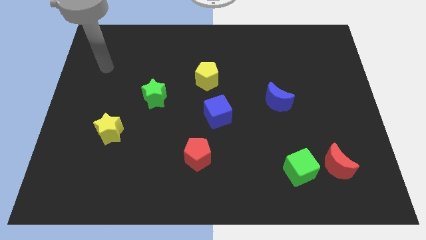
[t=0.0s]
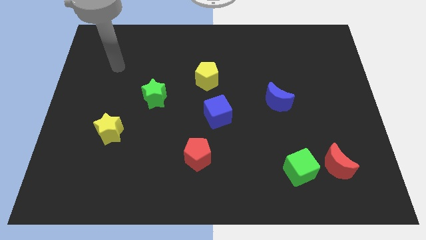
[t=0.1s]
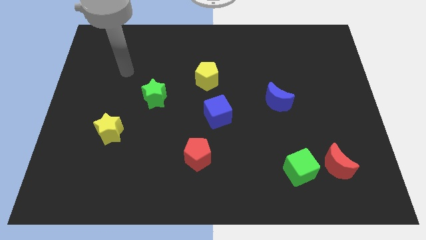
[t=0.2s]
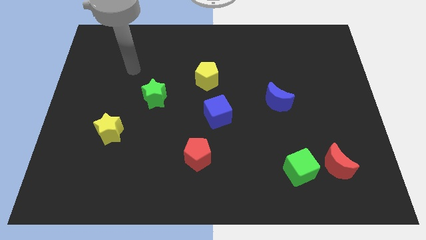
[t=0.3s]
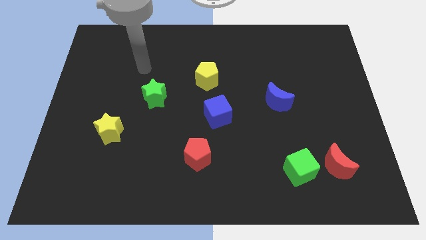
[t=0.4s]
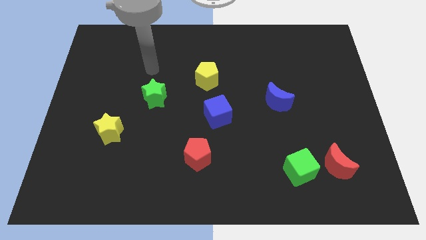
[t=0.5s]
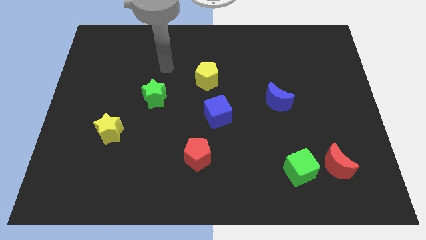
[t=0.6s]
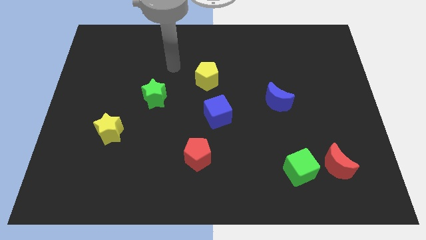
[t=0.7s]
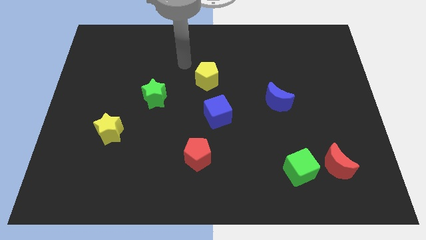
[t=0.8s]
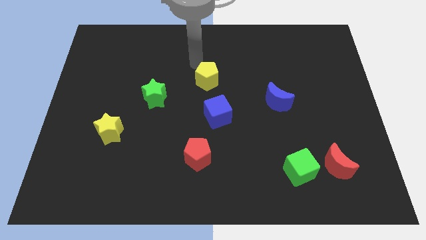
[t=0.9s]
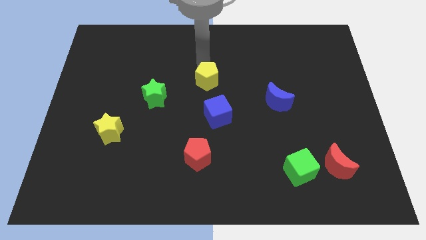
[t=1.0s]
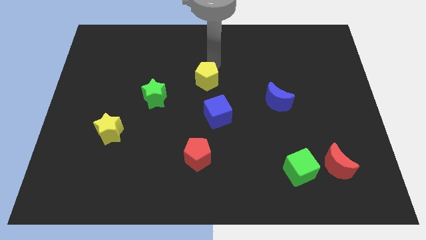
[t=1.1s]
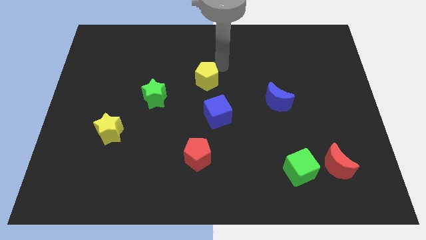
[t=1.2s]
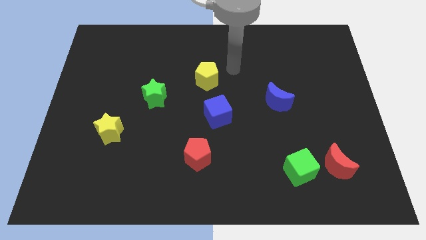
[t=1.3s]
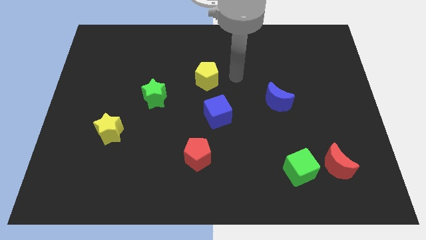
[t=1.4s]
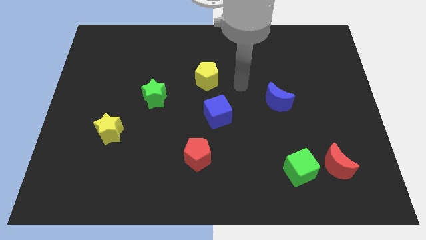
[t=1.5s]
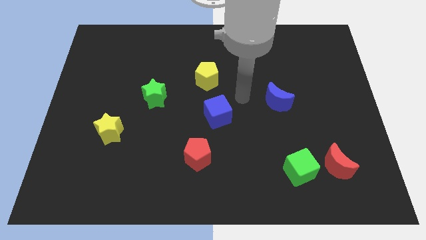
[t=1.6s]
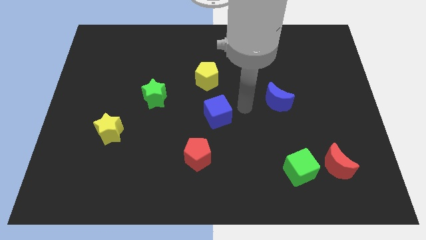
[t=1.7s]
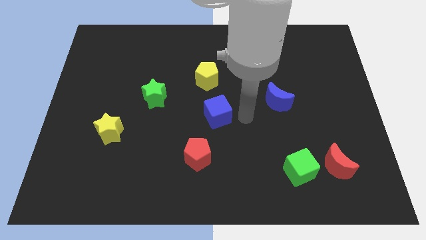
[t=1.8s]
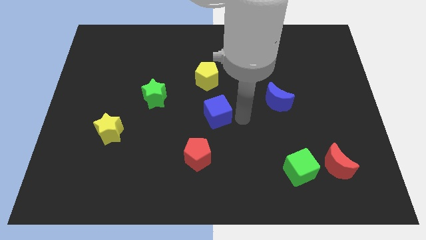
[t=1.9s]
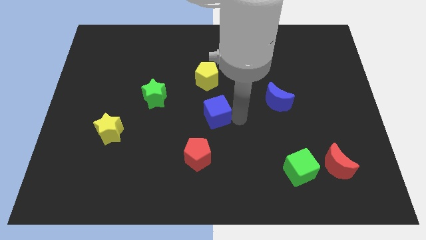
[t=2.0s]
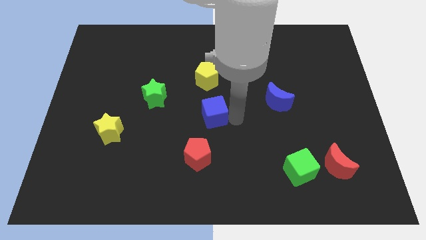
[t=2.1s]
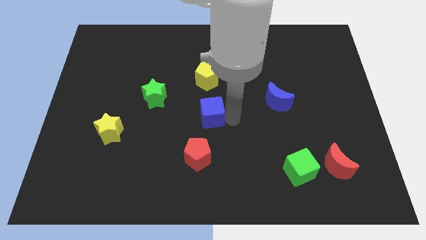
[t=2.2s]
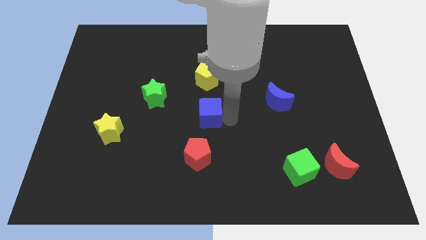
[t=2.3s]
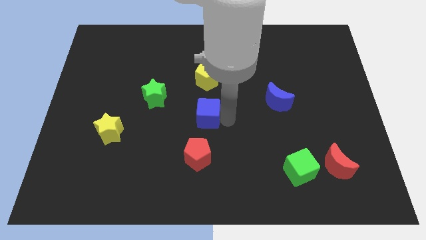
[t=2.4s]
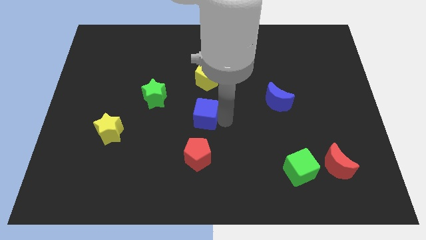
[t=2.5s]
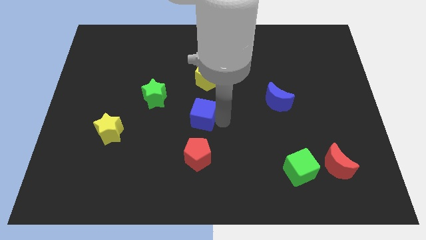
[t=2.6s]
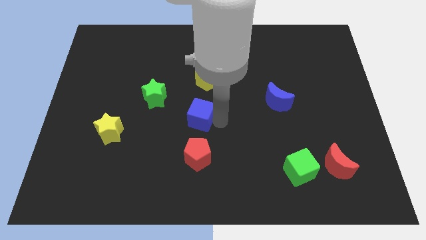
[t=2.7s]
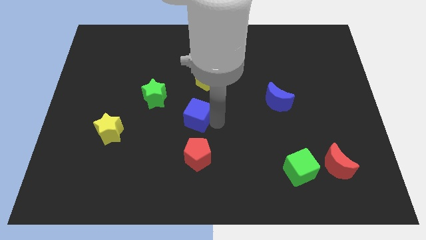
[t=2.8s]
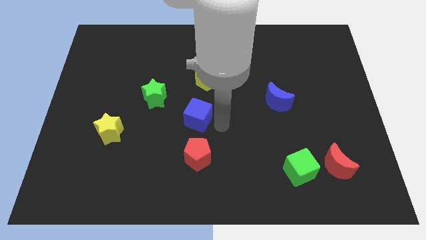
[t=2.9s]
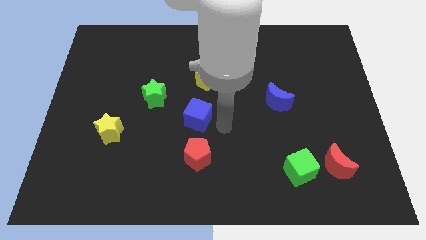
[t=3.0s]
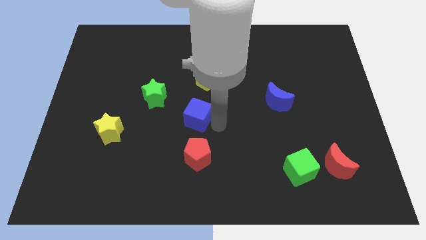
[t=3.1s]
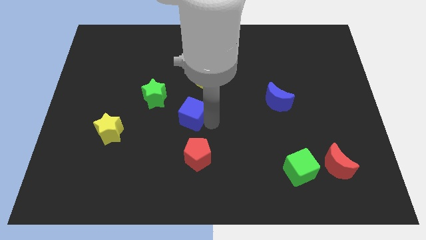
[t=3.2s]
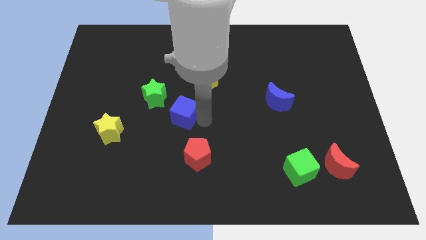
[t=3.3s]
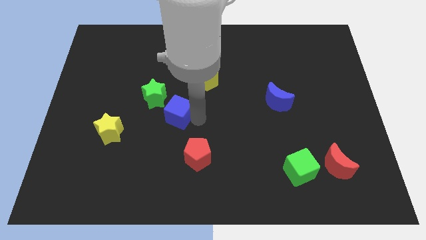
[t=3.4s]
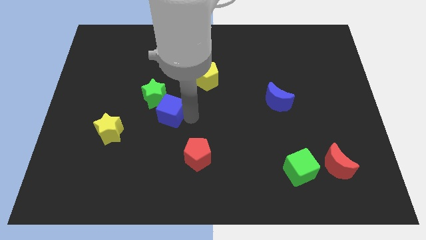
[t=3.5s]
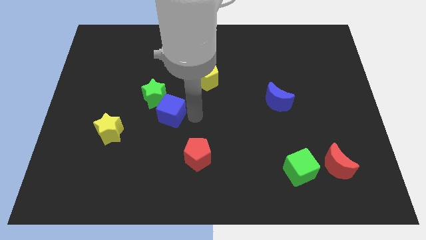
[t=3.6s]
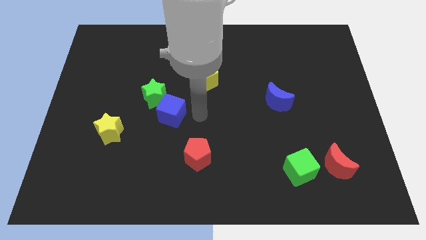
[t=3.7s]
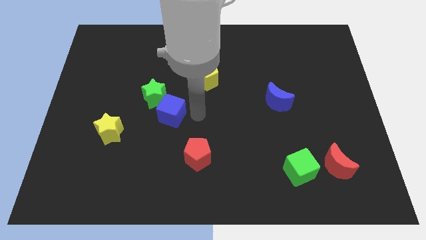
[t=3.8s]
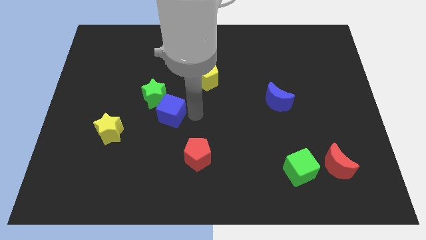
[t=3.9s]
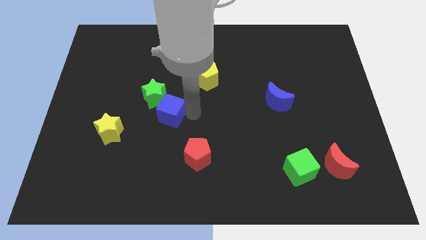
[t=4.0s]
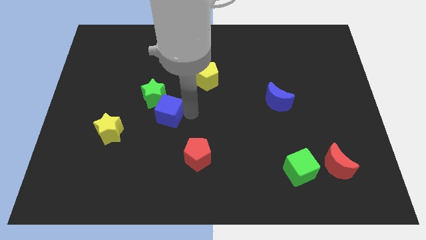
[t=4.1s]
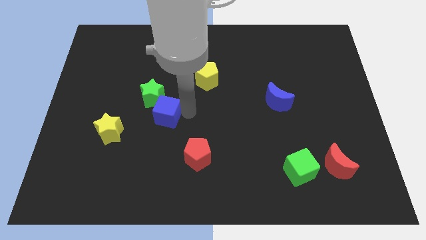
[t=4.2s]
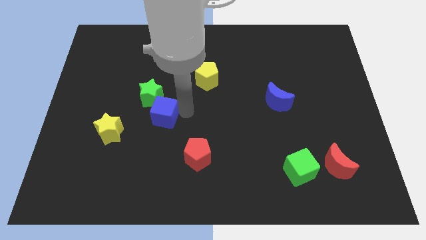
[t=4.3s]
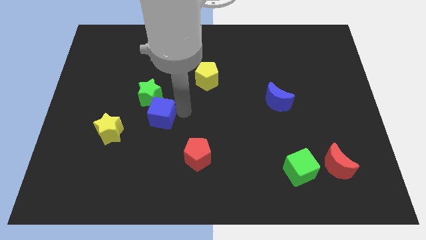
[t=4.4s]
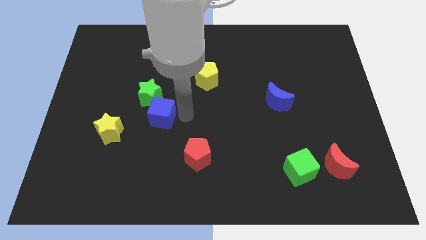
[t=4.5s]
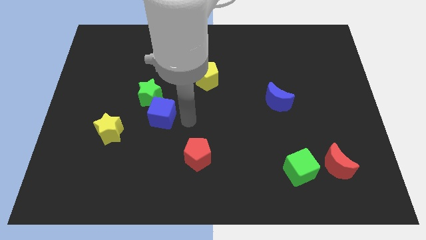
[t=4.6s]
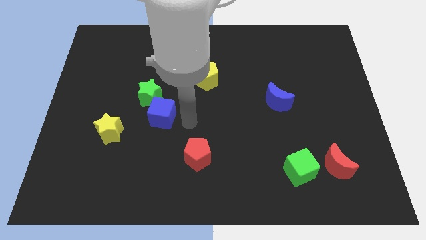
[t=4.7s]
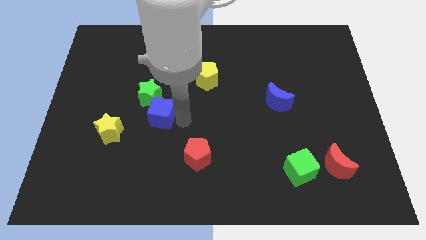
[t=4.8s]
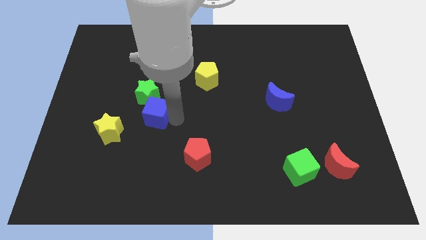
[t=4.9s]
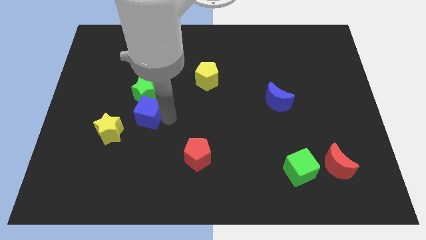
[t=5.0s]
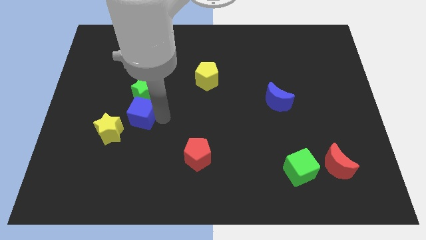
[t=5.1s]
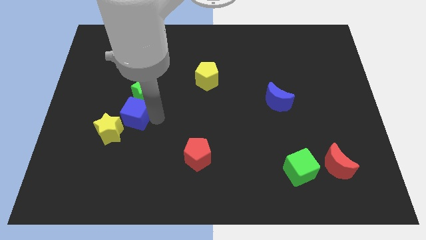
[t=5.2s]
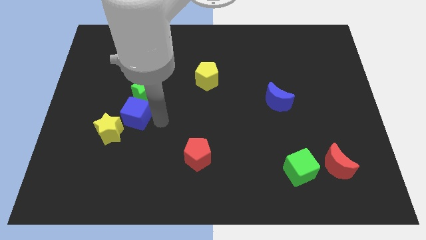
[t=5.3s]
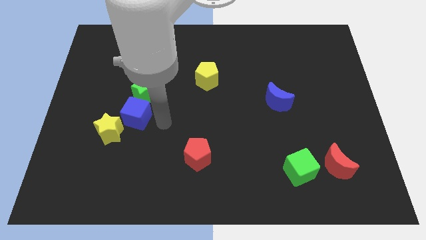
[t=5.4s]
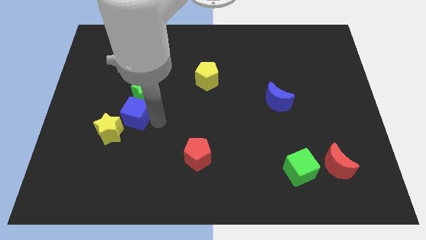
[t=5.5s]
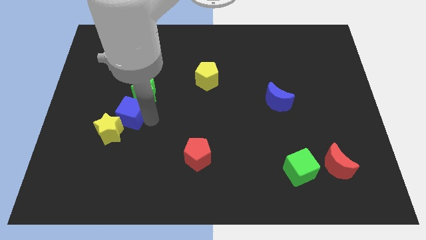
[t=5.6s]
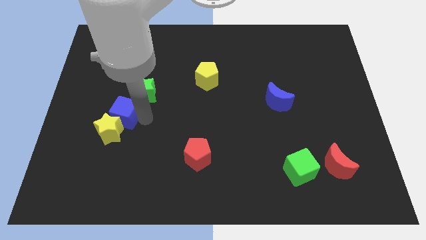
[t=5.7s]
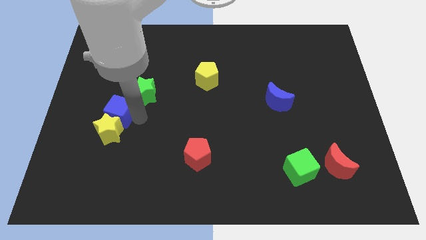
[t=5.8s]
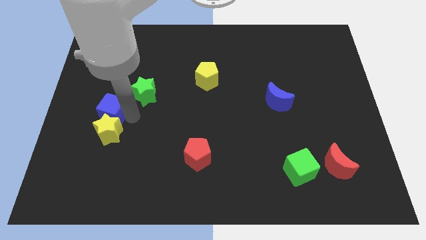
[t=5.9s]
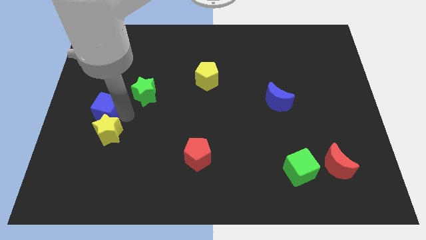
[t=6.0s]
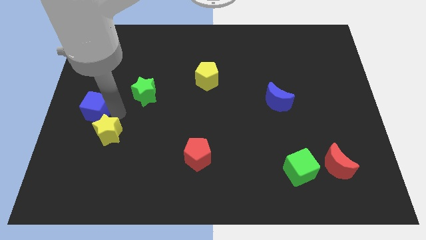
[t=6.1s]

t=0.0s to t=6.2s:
put the blue cube to the left side of the board
